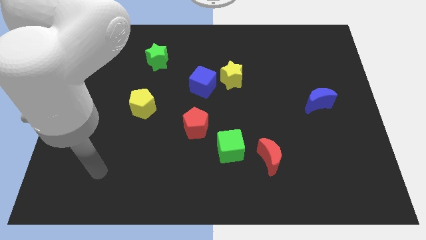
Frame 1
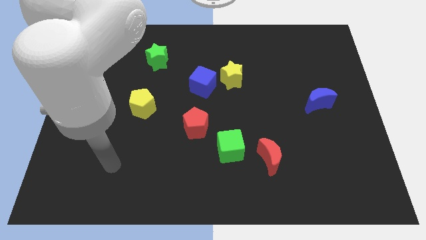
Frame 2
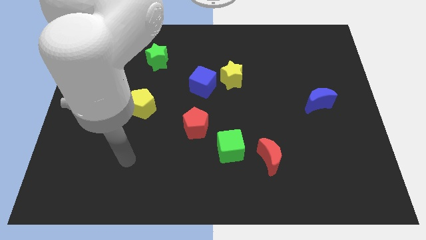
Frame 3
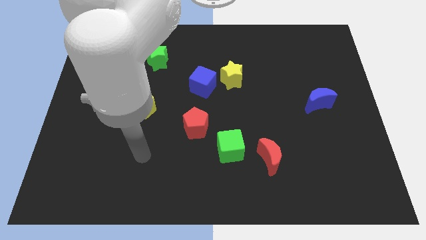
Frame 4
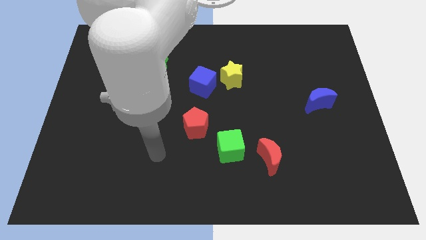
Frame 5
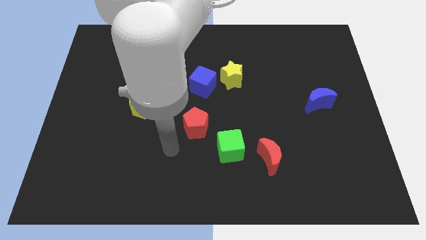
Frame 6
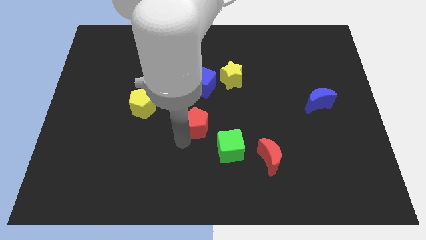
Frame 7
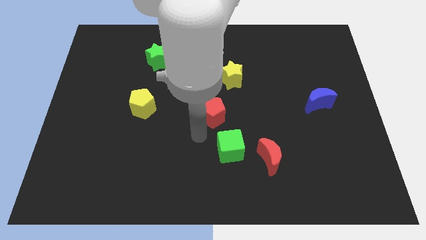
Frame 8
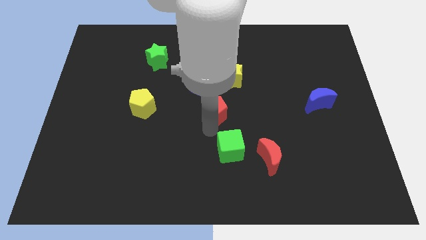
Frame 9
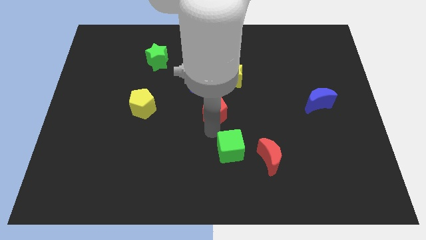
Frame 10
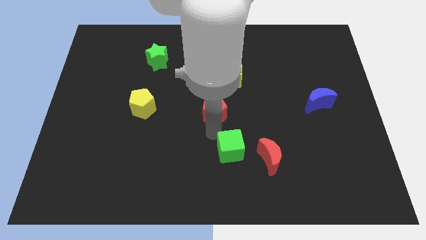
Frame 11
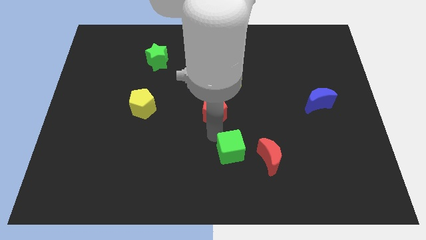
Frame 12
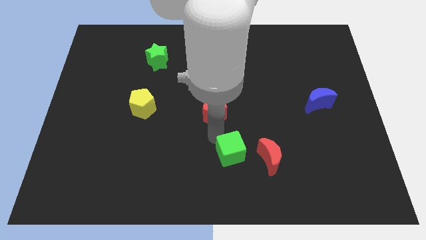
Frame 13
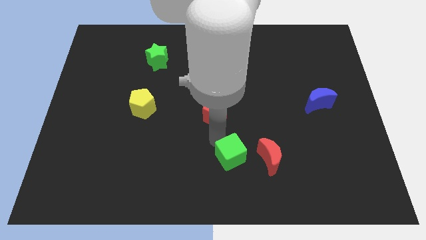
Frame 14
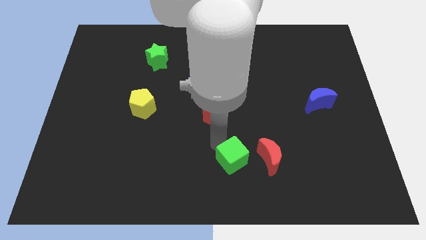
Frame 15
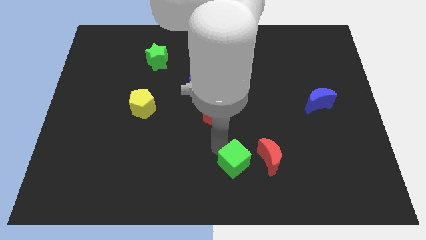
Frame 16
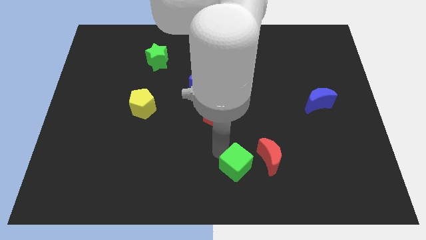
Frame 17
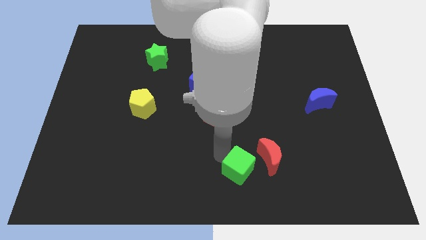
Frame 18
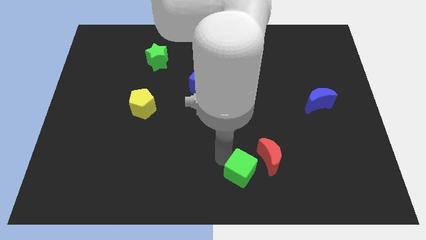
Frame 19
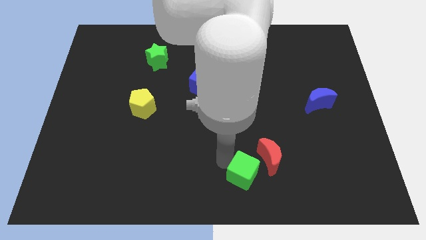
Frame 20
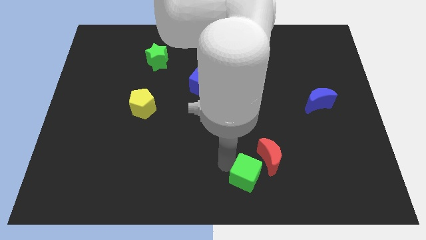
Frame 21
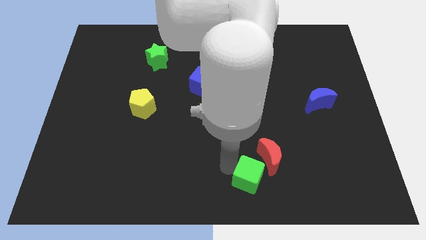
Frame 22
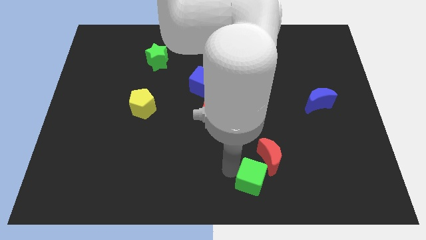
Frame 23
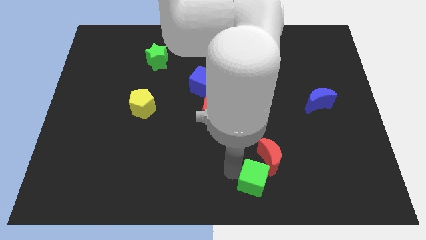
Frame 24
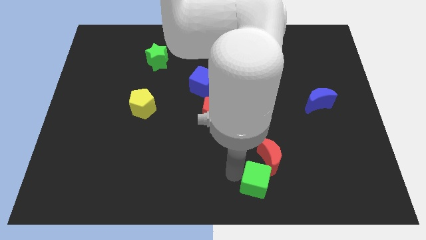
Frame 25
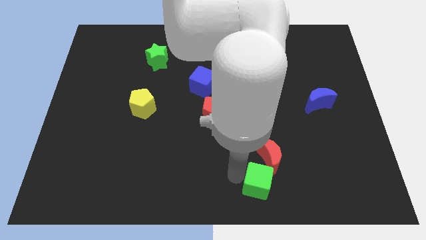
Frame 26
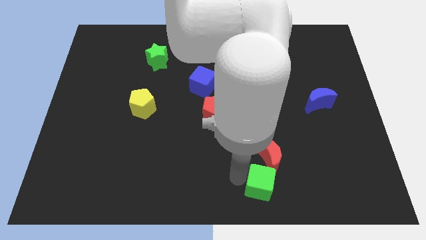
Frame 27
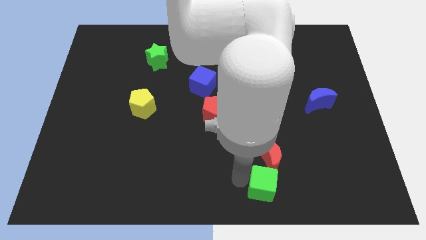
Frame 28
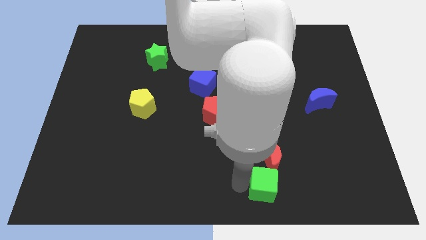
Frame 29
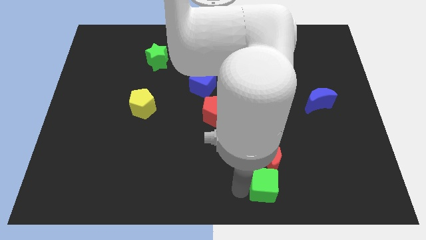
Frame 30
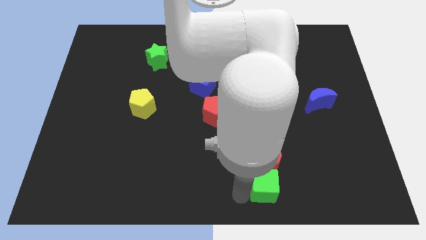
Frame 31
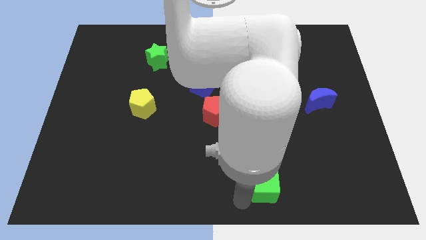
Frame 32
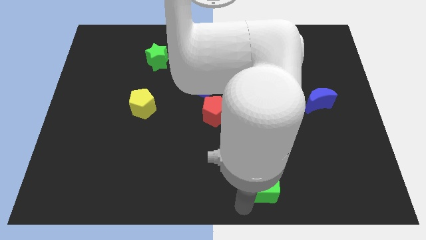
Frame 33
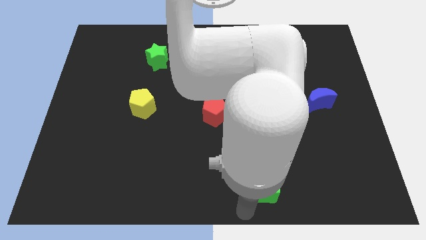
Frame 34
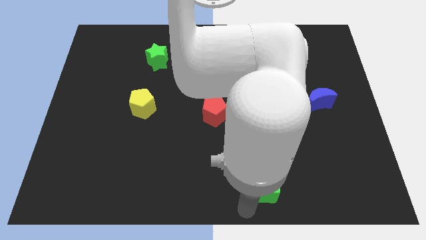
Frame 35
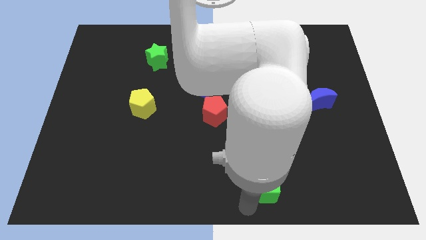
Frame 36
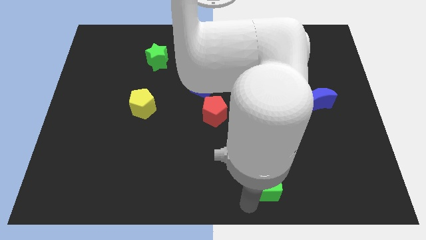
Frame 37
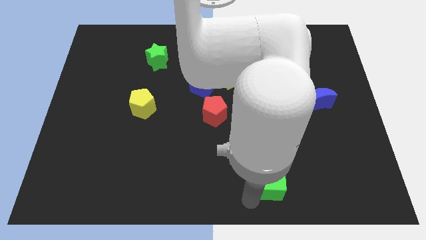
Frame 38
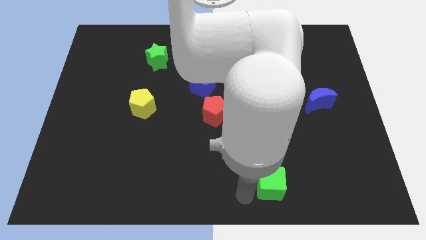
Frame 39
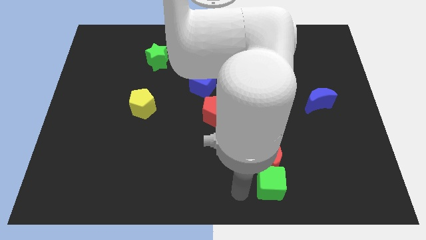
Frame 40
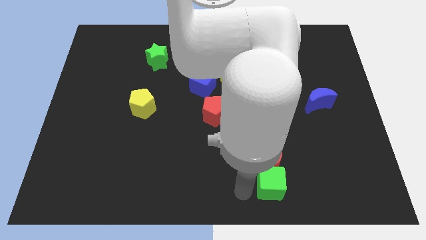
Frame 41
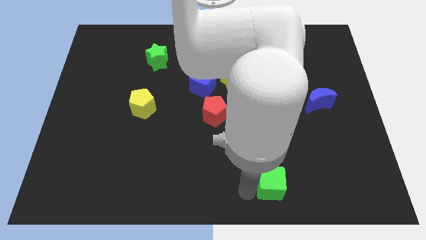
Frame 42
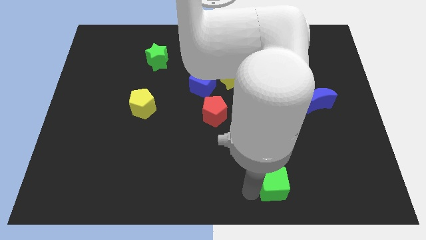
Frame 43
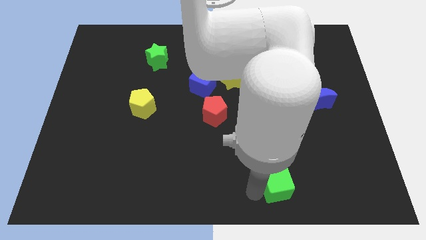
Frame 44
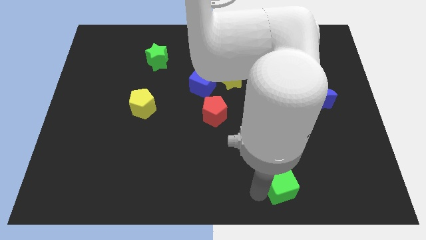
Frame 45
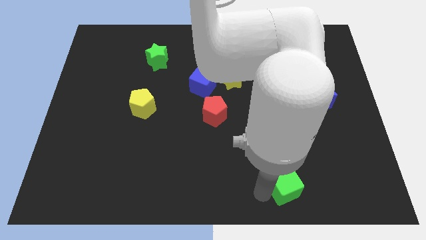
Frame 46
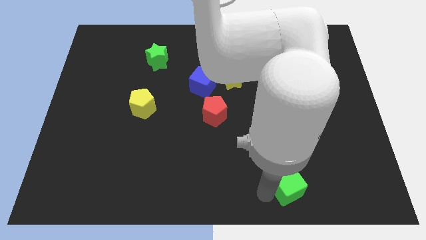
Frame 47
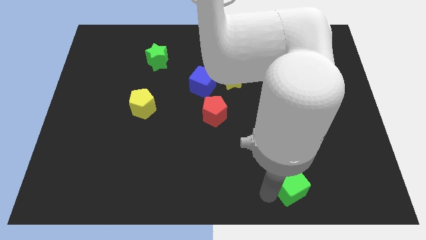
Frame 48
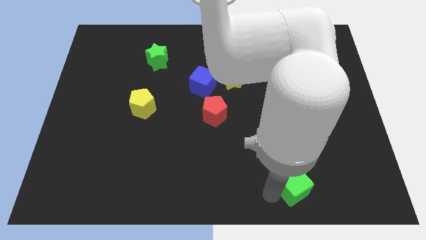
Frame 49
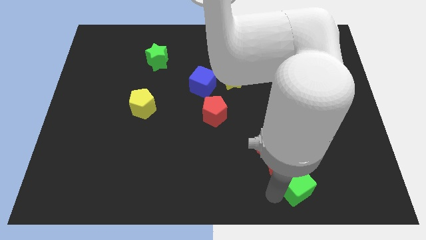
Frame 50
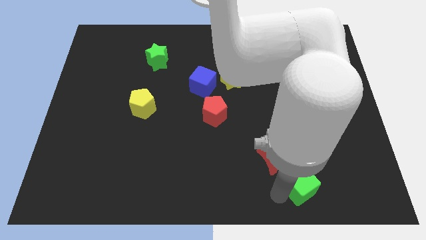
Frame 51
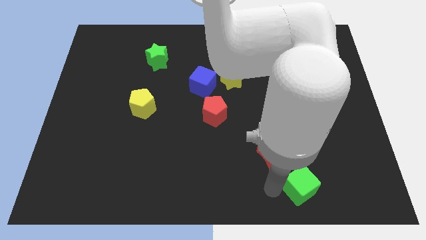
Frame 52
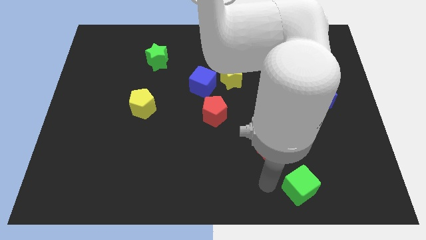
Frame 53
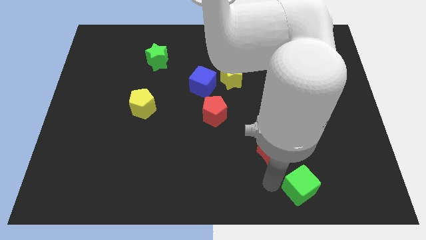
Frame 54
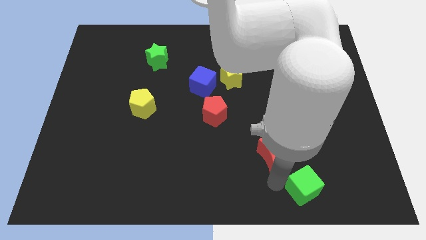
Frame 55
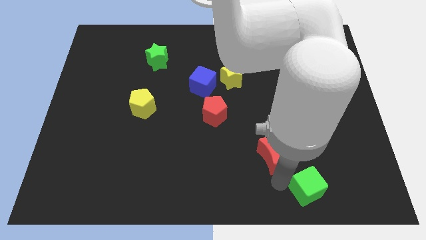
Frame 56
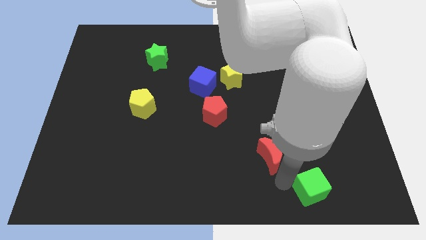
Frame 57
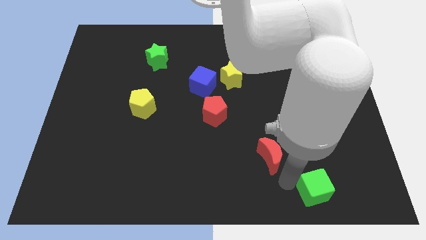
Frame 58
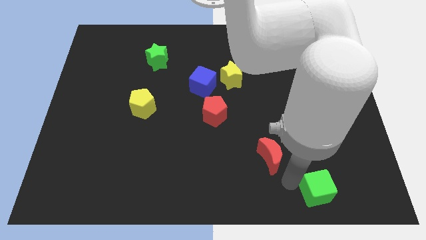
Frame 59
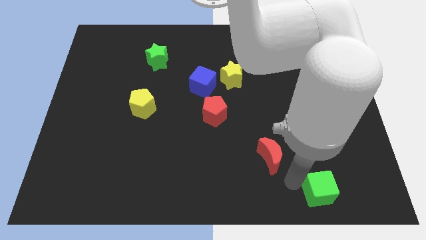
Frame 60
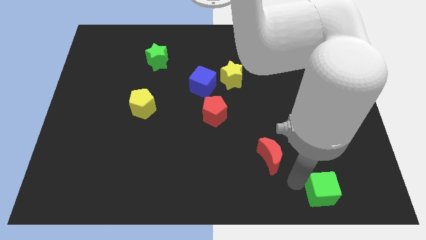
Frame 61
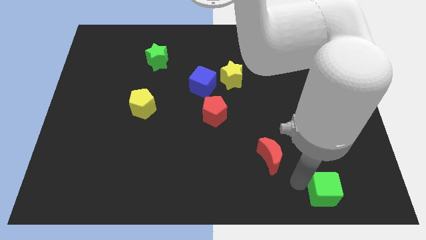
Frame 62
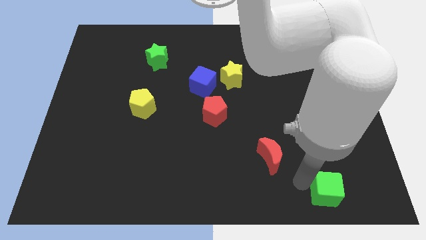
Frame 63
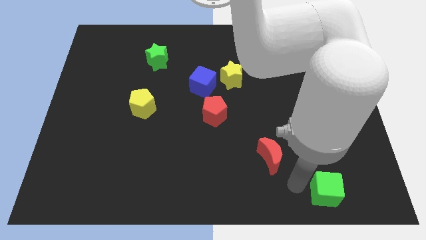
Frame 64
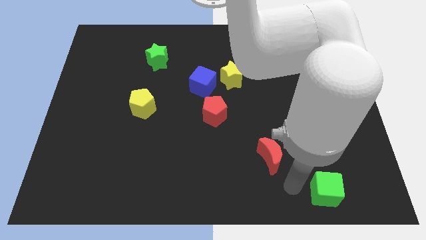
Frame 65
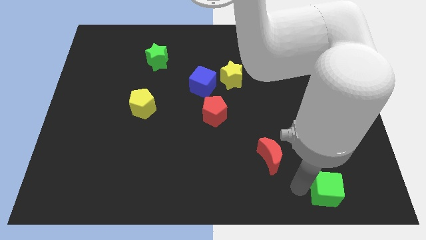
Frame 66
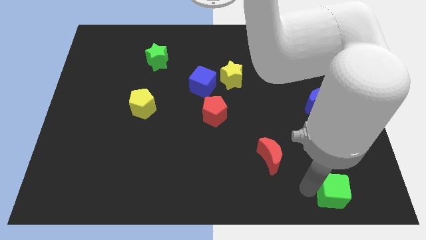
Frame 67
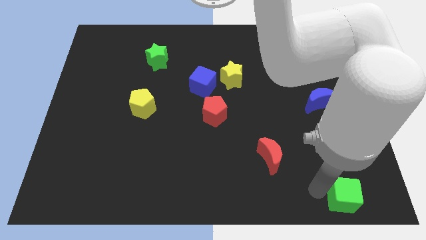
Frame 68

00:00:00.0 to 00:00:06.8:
put the green cube to the bottom right corner
